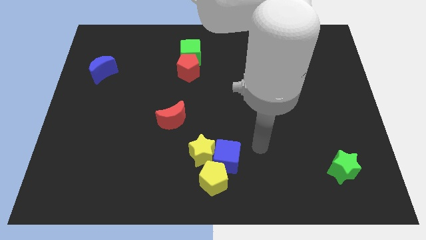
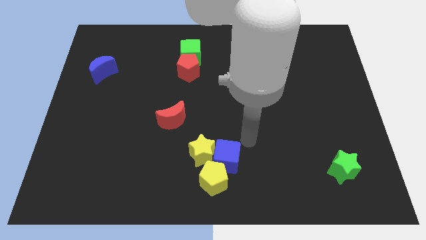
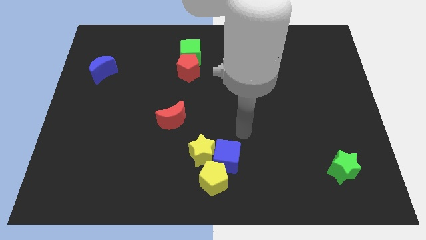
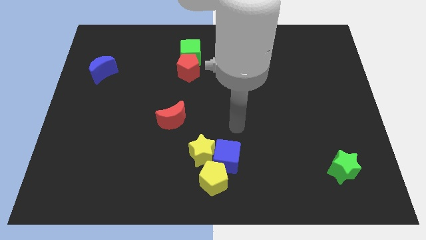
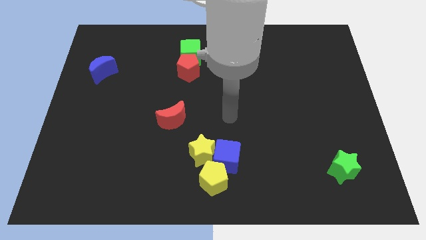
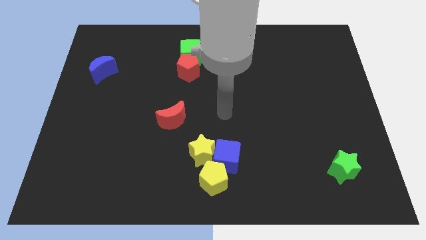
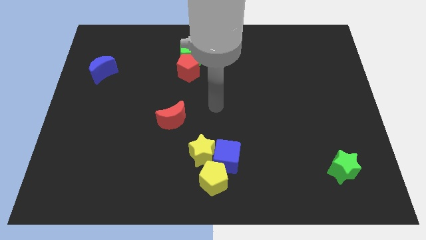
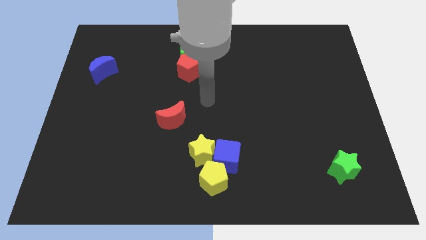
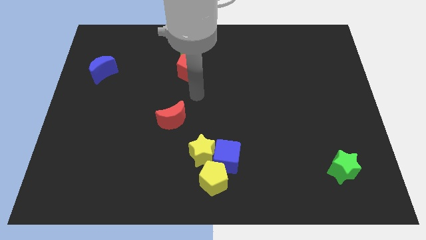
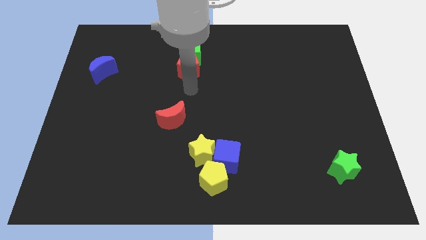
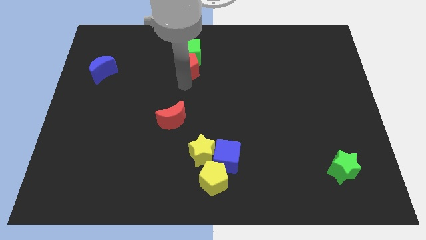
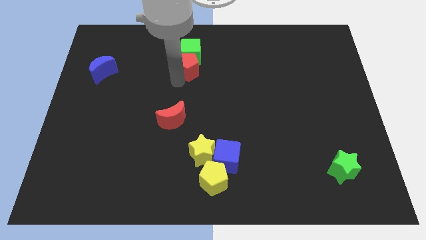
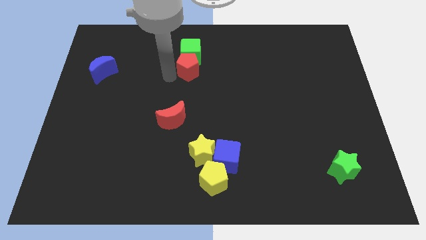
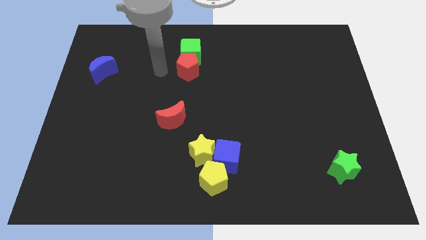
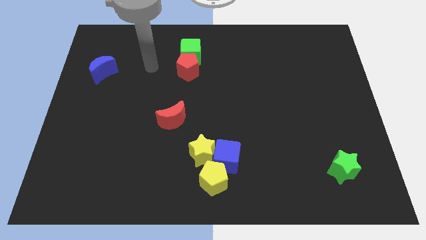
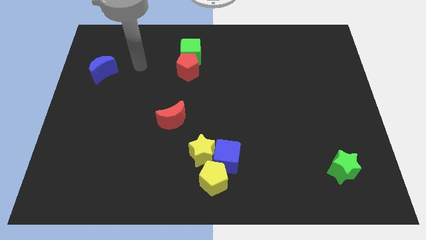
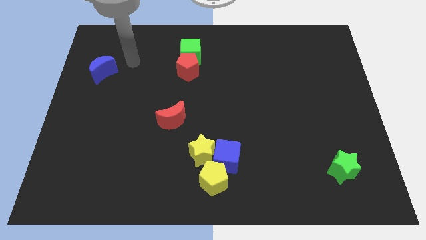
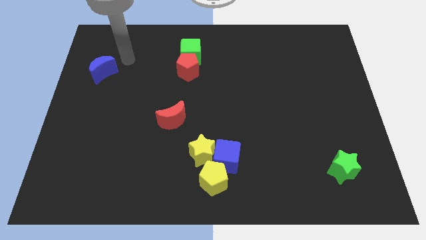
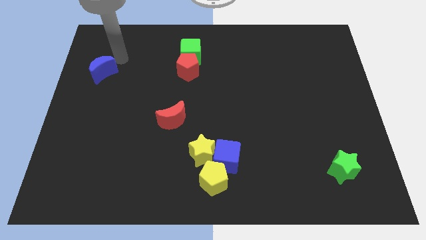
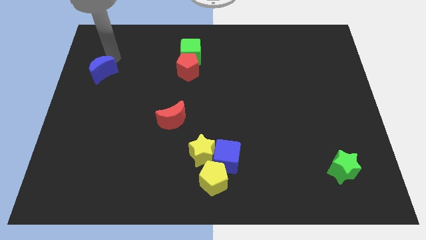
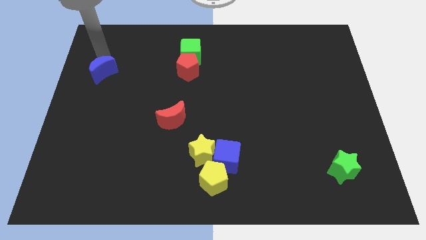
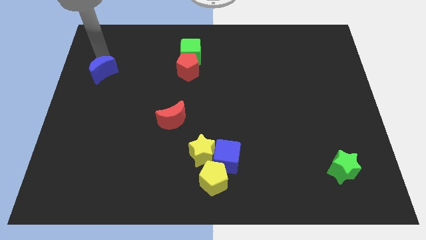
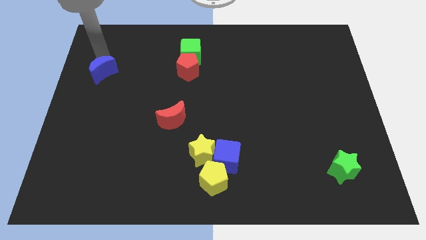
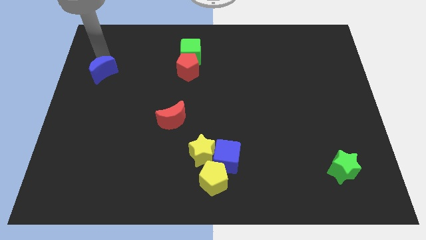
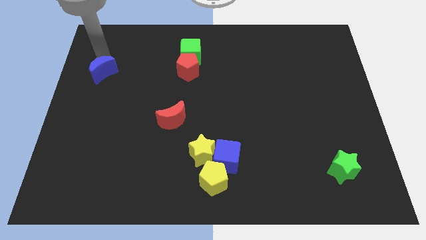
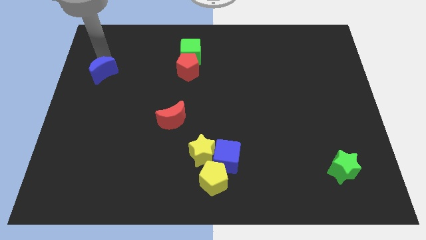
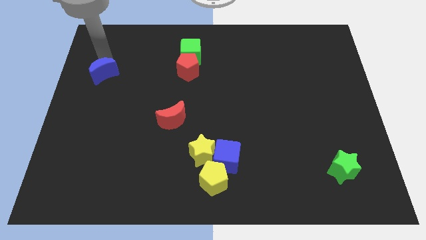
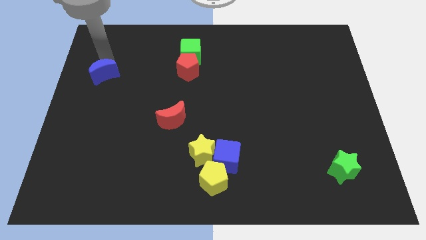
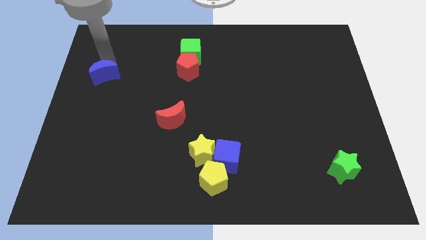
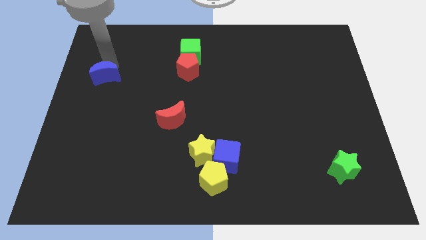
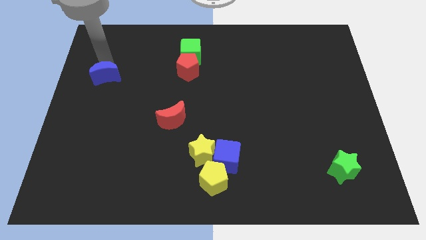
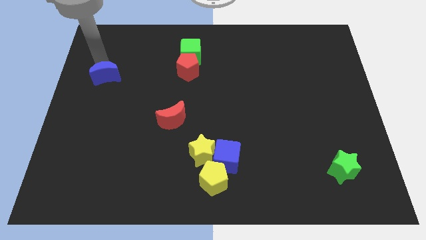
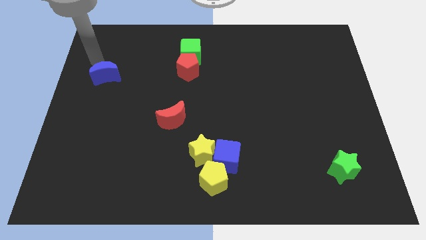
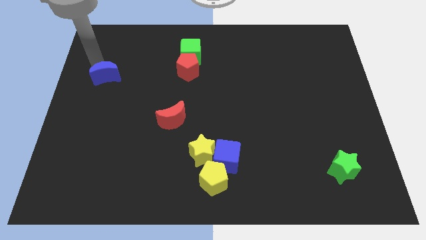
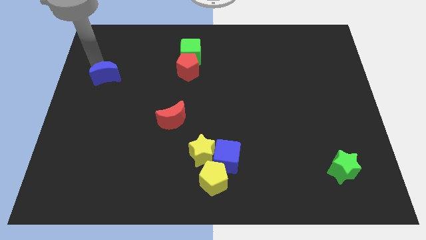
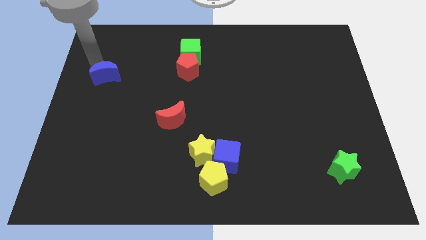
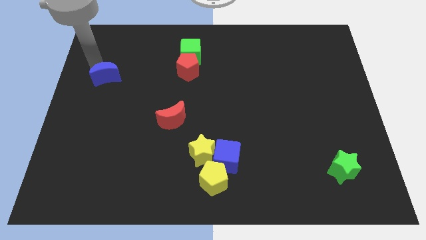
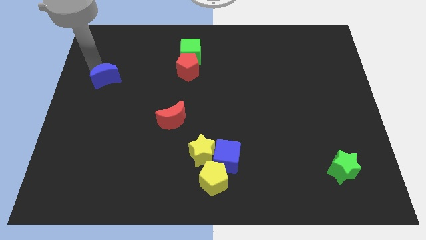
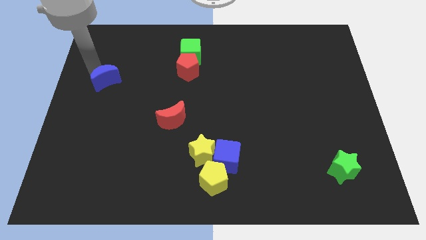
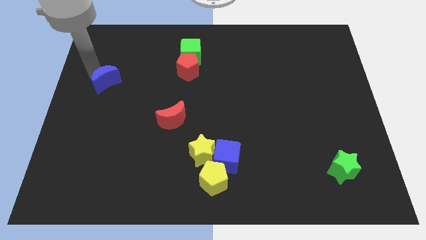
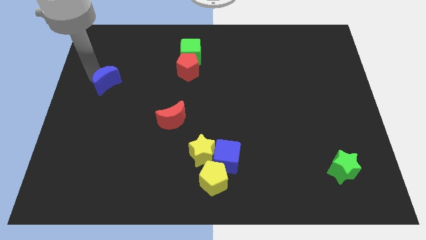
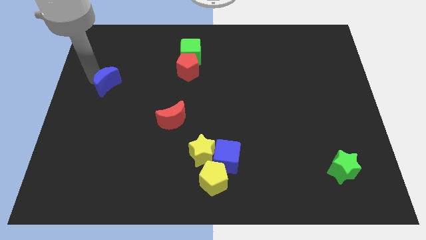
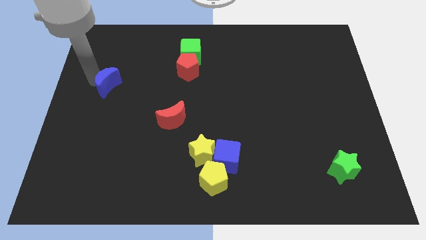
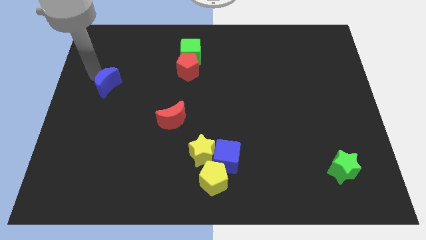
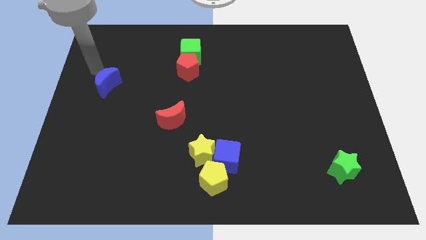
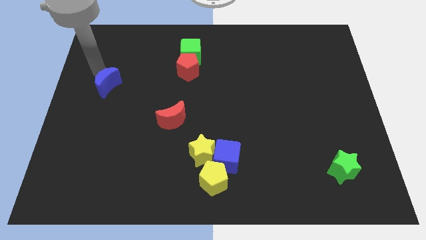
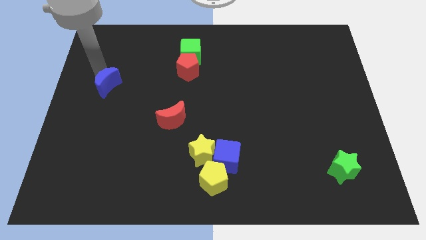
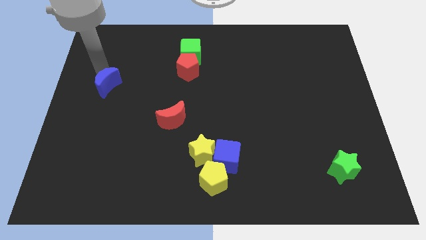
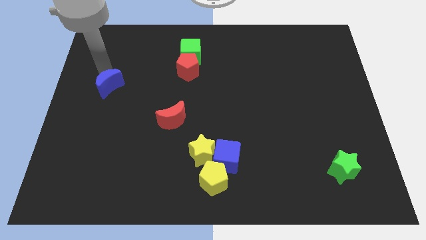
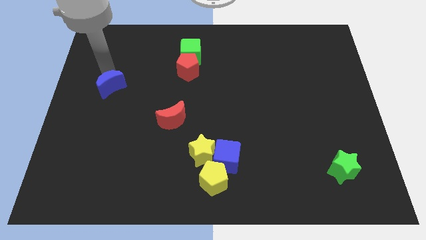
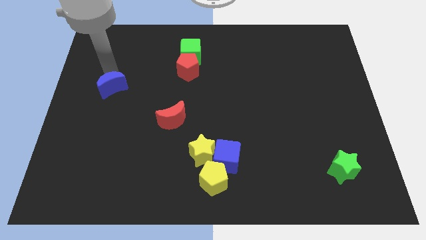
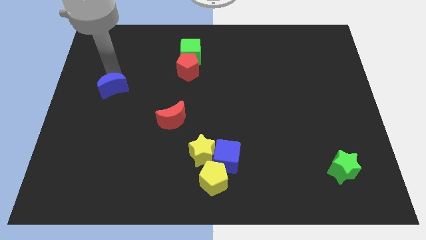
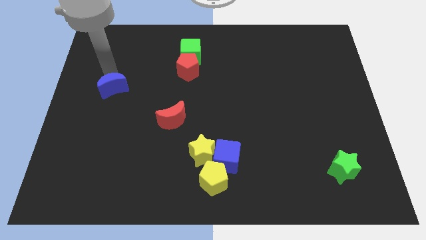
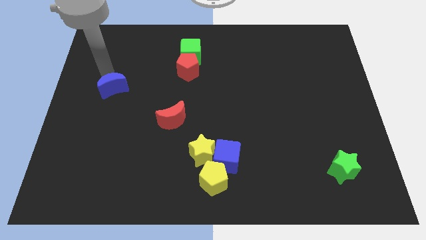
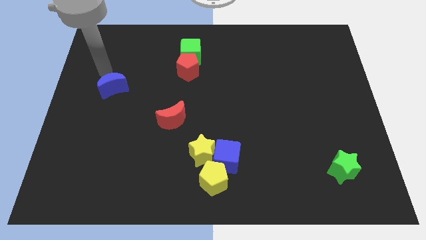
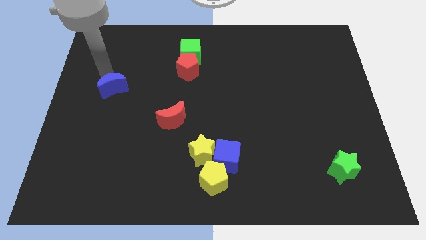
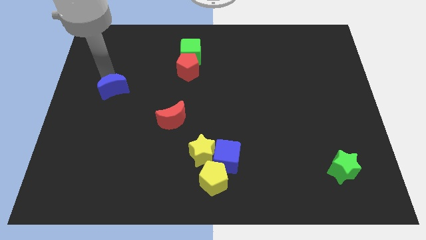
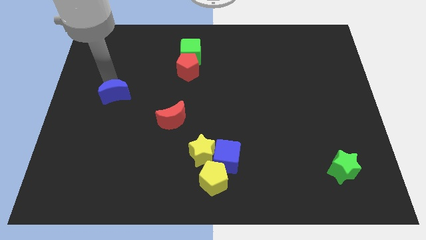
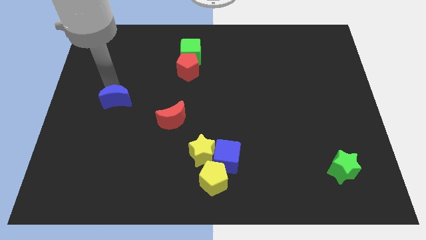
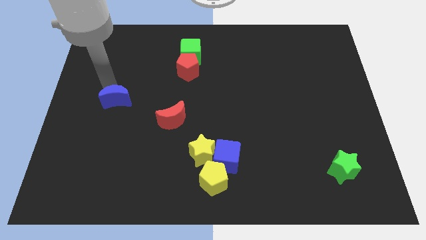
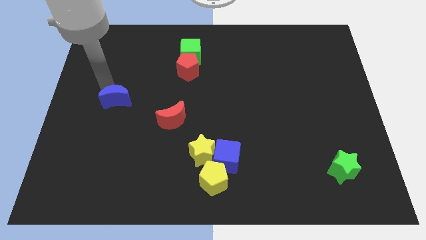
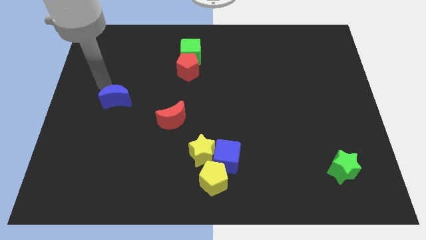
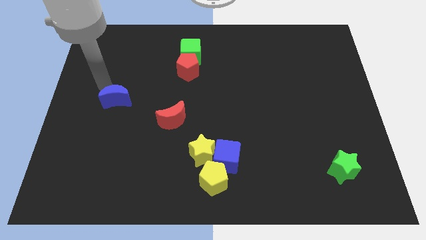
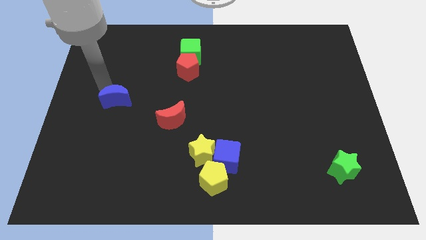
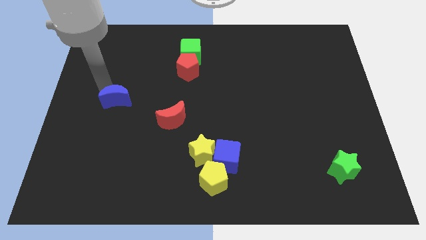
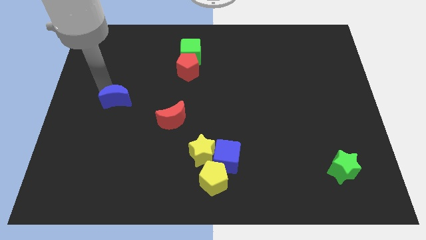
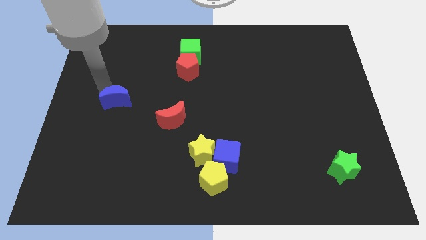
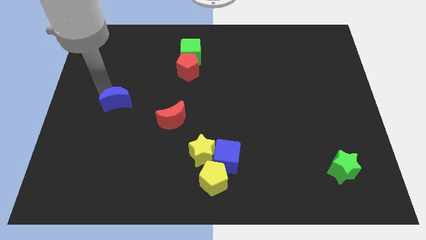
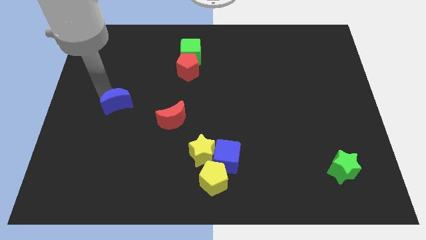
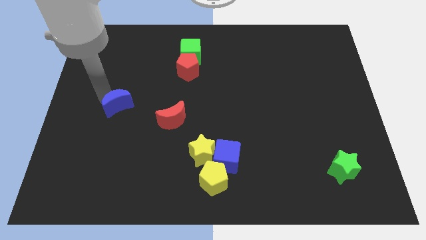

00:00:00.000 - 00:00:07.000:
move the blue moon just left of the red moon
